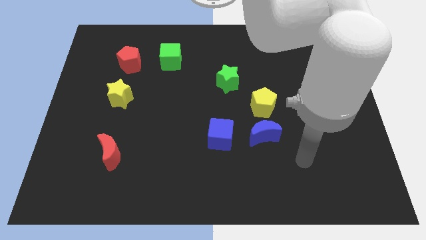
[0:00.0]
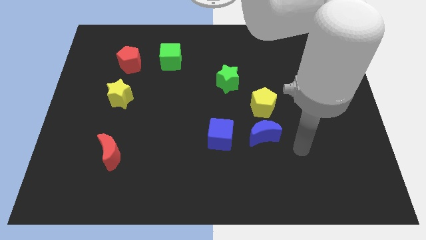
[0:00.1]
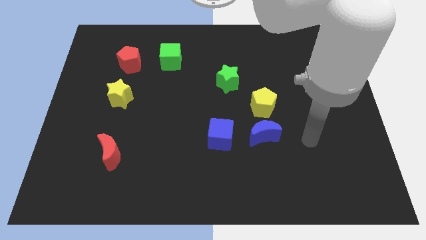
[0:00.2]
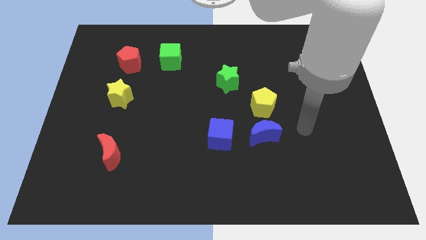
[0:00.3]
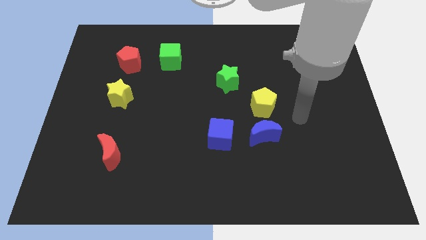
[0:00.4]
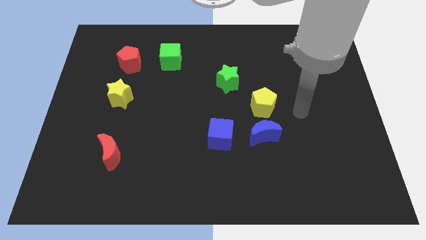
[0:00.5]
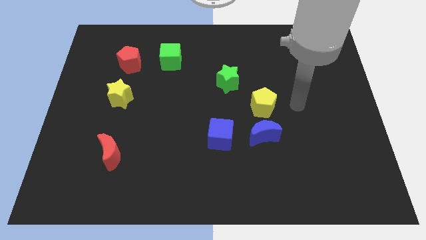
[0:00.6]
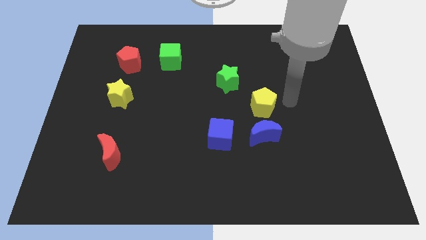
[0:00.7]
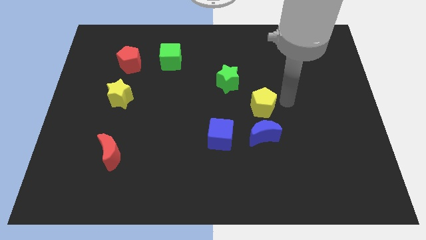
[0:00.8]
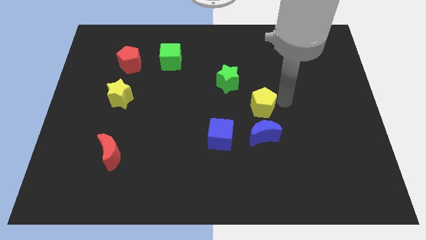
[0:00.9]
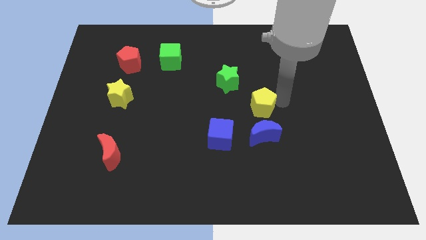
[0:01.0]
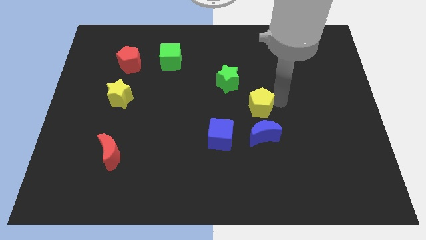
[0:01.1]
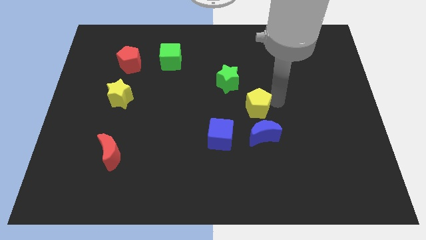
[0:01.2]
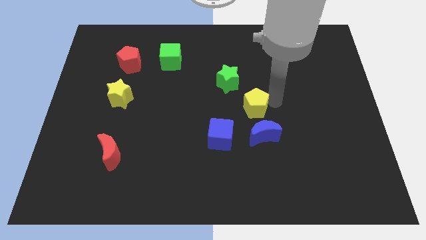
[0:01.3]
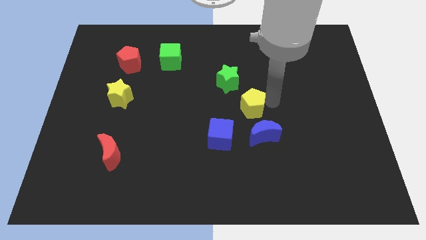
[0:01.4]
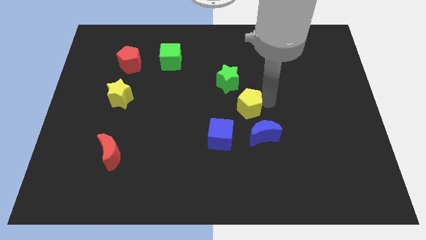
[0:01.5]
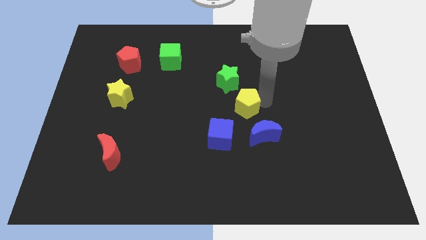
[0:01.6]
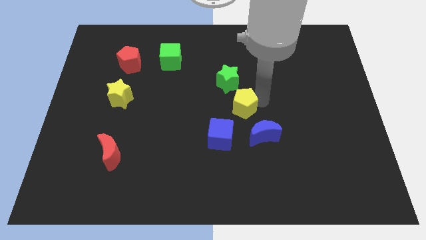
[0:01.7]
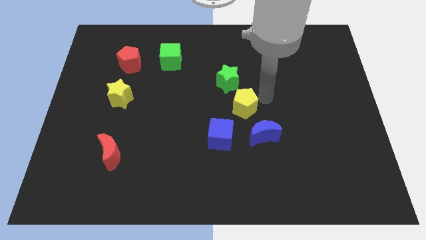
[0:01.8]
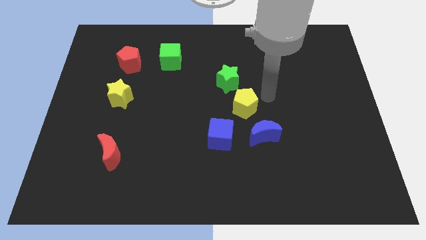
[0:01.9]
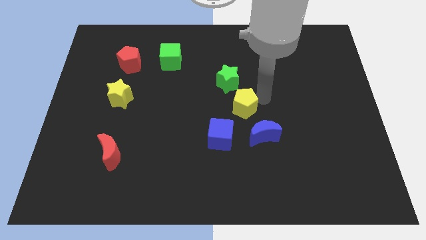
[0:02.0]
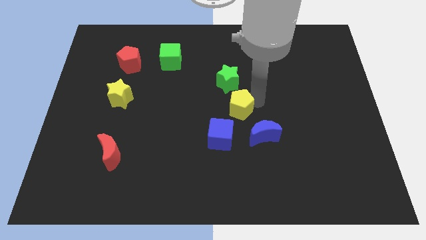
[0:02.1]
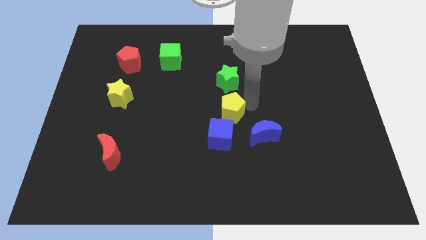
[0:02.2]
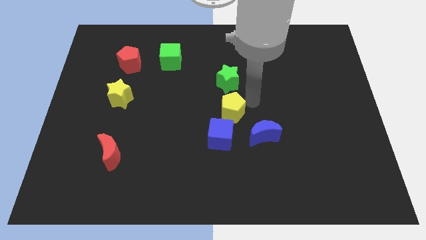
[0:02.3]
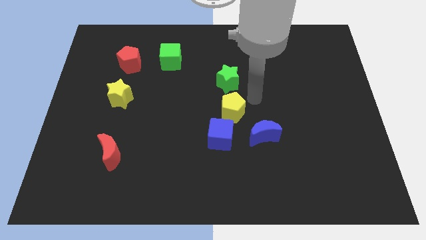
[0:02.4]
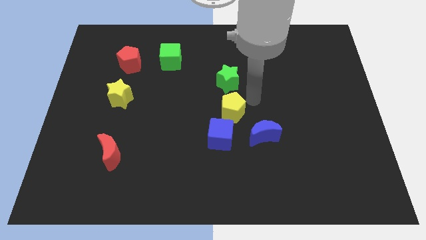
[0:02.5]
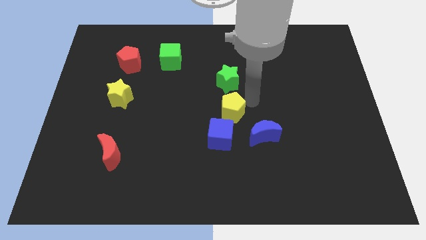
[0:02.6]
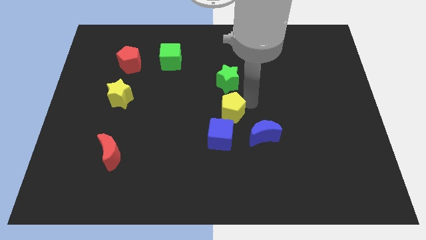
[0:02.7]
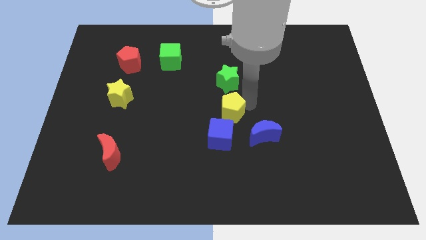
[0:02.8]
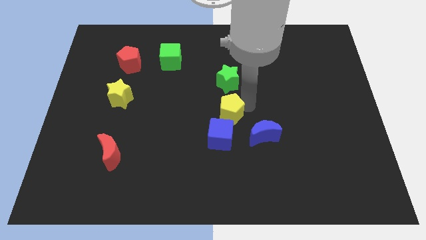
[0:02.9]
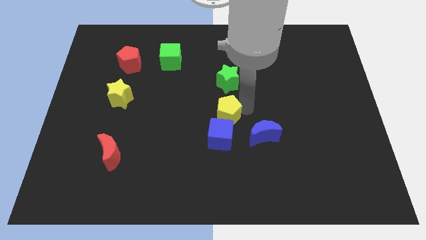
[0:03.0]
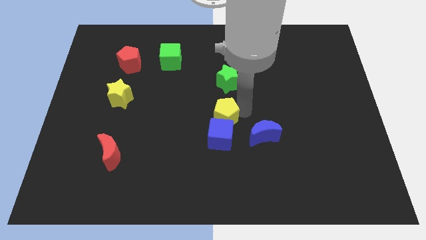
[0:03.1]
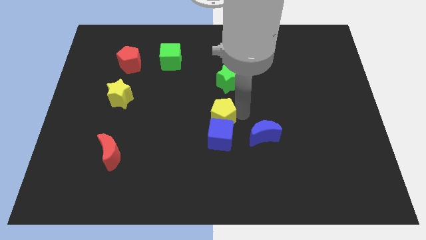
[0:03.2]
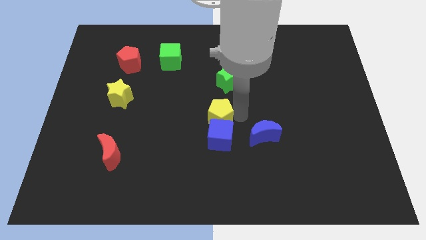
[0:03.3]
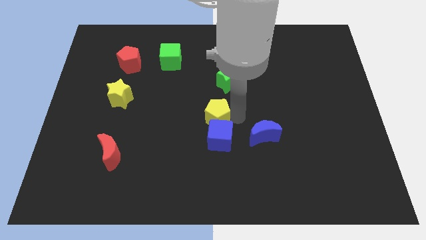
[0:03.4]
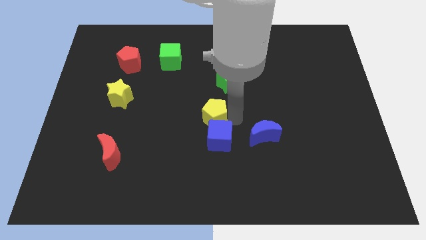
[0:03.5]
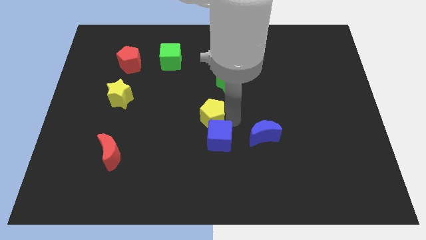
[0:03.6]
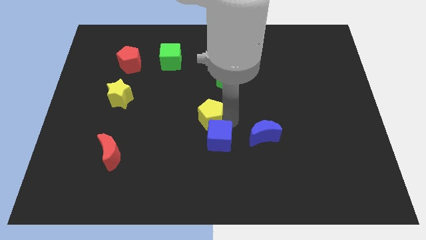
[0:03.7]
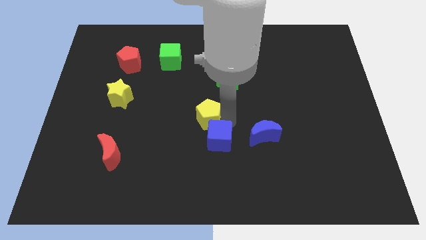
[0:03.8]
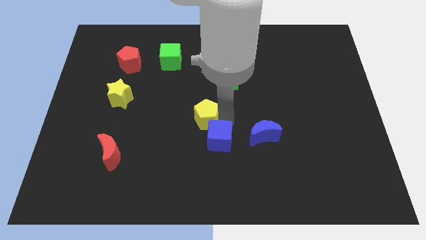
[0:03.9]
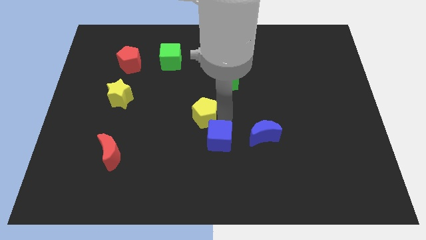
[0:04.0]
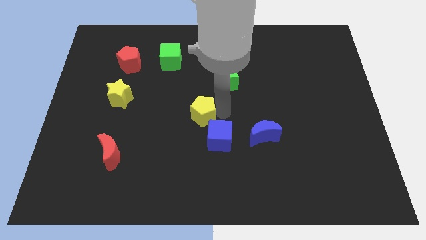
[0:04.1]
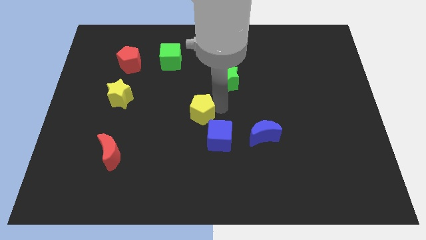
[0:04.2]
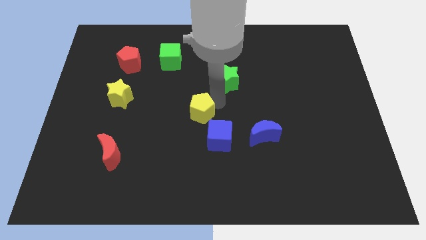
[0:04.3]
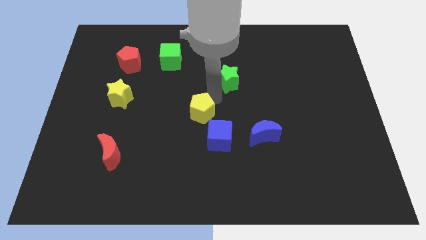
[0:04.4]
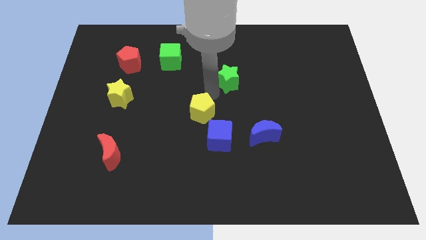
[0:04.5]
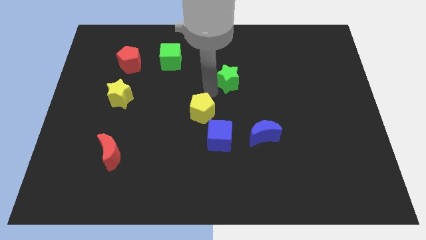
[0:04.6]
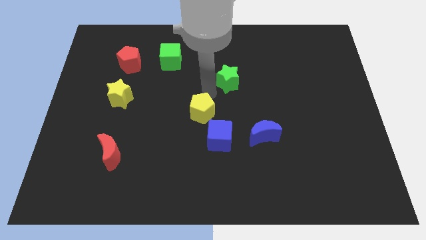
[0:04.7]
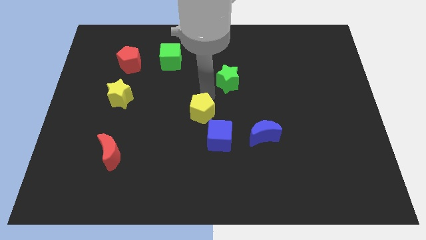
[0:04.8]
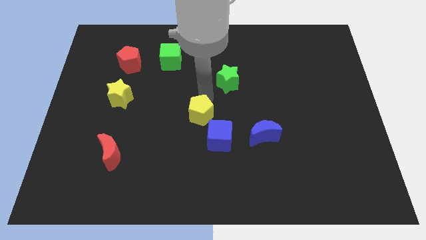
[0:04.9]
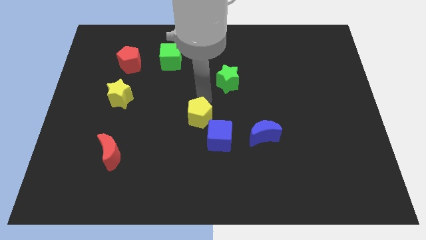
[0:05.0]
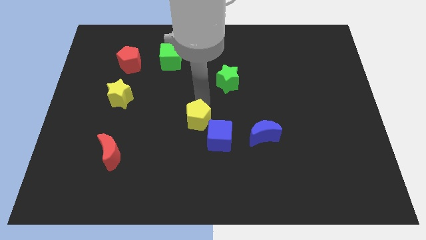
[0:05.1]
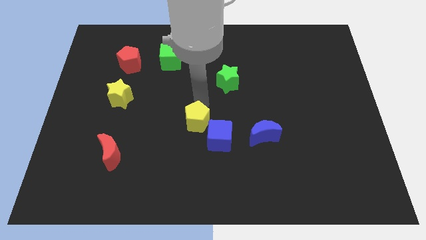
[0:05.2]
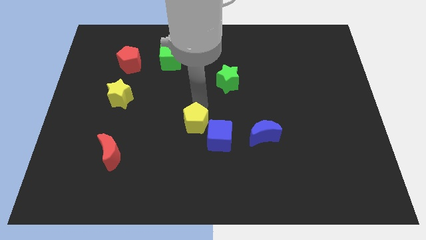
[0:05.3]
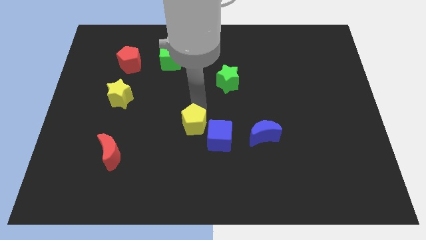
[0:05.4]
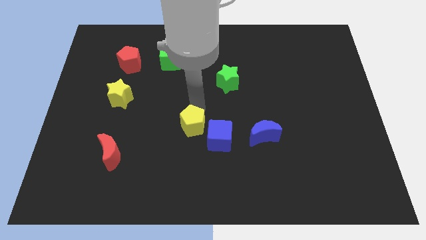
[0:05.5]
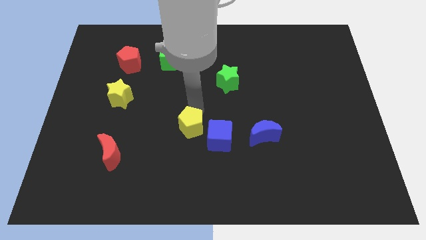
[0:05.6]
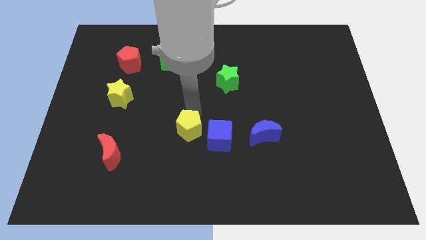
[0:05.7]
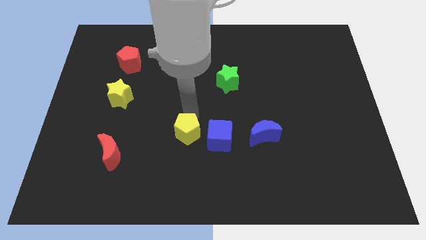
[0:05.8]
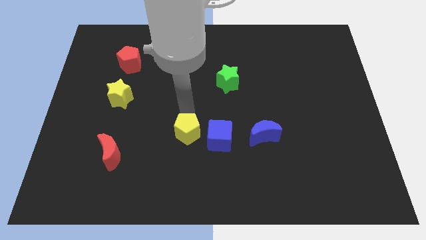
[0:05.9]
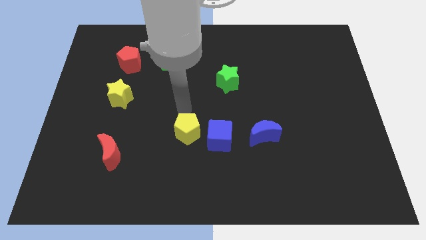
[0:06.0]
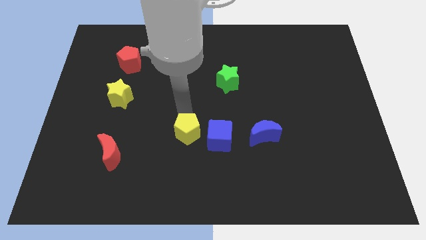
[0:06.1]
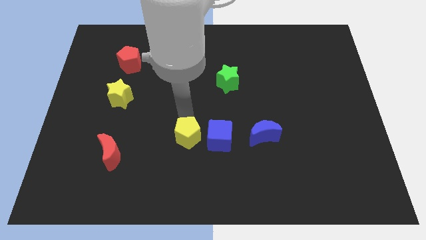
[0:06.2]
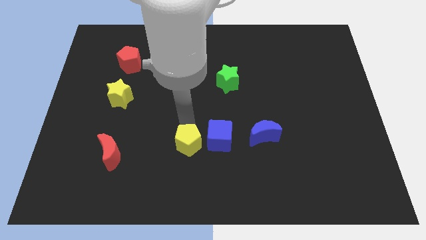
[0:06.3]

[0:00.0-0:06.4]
put the yellow pentagon to the bottom left side of the blue cube
